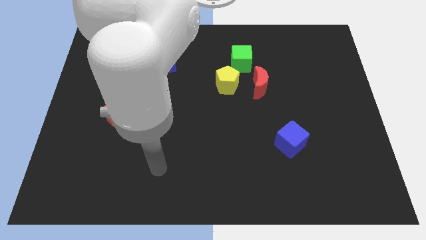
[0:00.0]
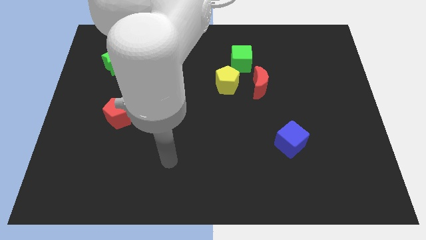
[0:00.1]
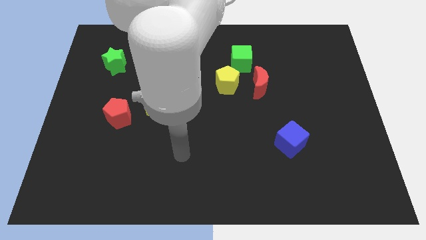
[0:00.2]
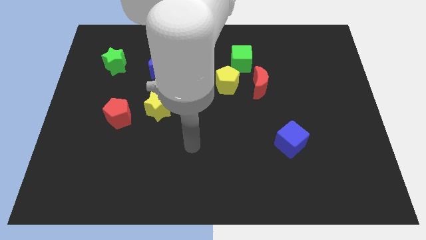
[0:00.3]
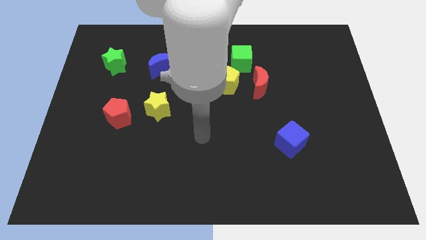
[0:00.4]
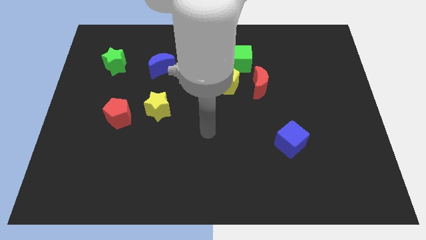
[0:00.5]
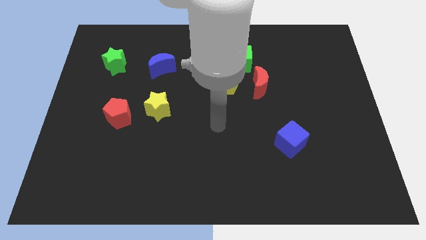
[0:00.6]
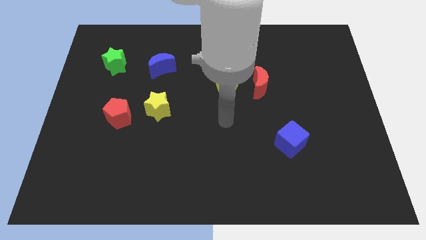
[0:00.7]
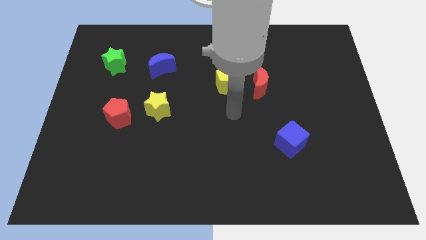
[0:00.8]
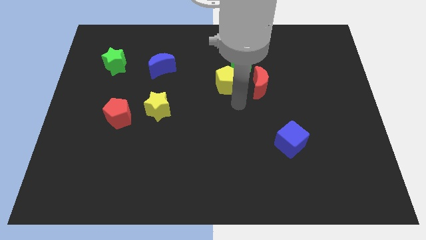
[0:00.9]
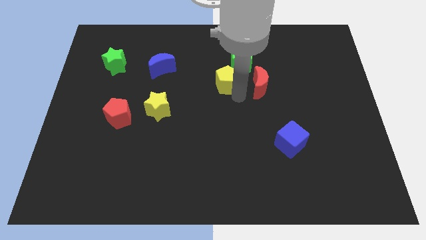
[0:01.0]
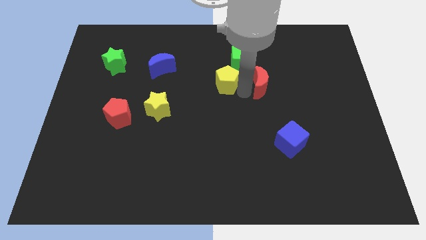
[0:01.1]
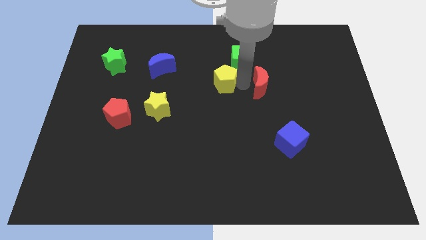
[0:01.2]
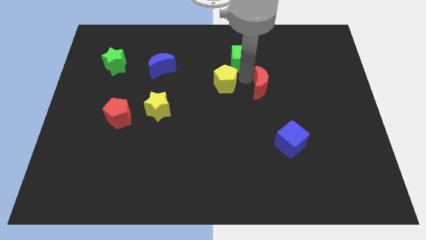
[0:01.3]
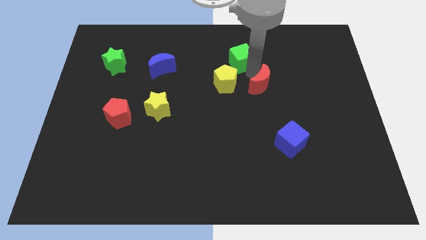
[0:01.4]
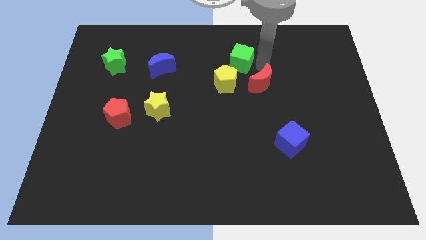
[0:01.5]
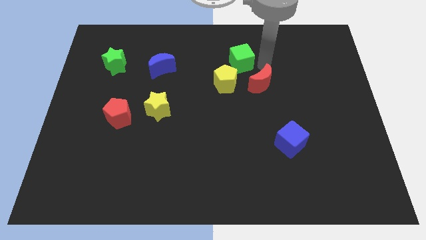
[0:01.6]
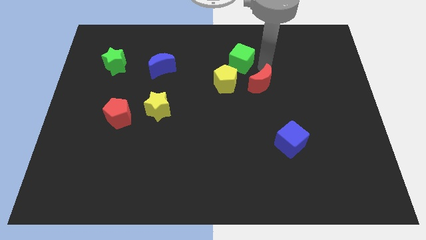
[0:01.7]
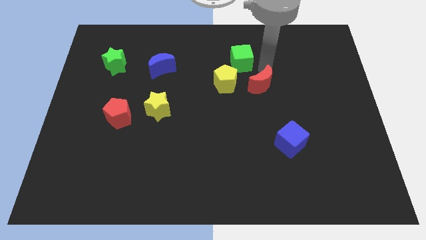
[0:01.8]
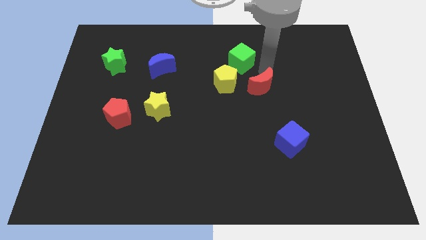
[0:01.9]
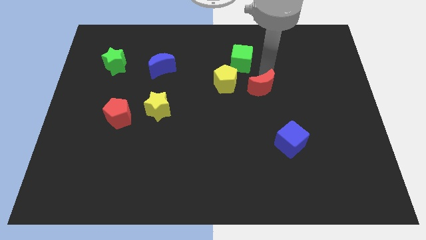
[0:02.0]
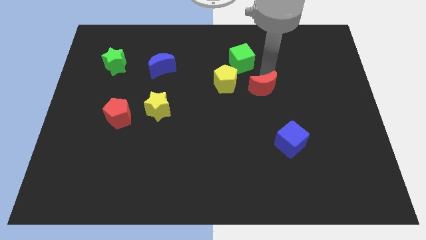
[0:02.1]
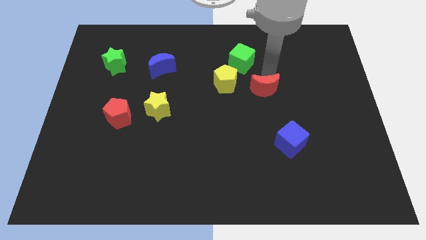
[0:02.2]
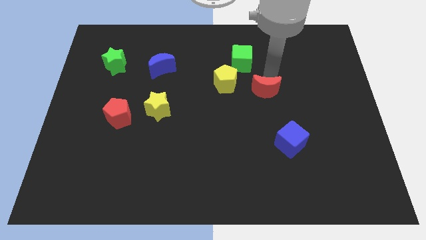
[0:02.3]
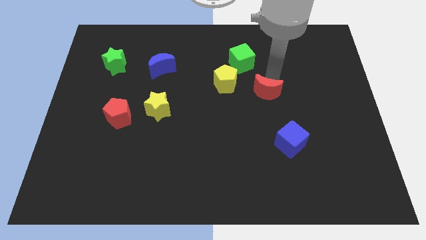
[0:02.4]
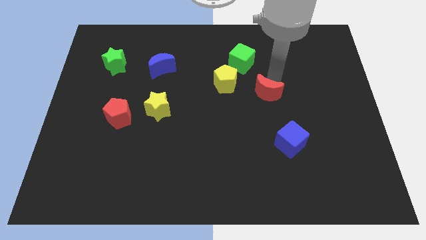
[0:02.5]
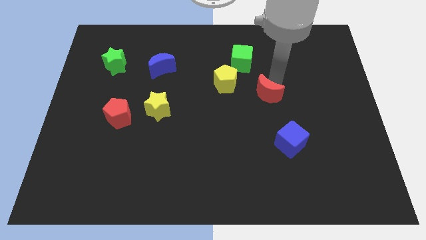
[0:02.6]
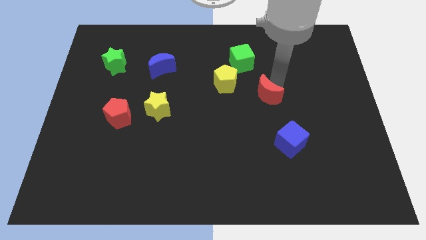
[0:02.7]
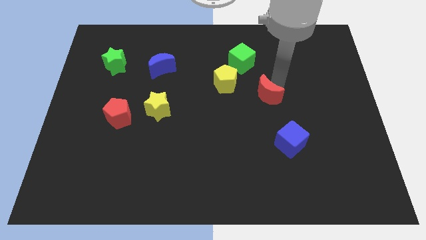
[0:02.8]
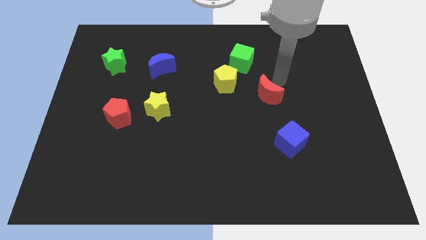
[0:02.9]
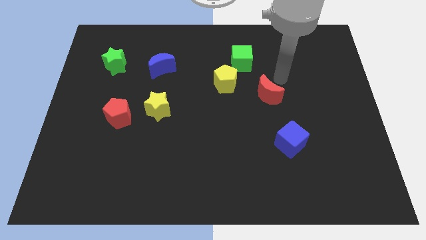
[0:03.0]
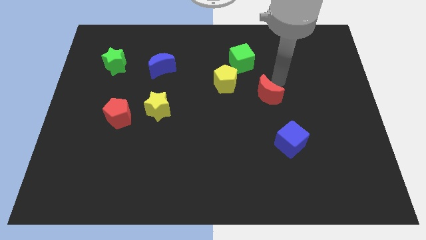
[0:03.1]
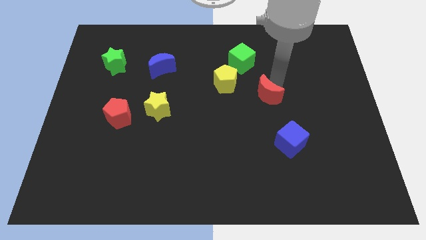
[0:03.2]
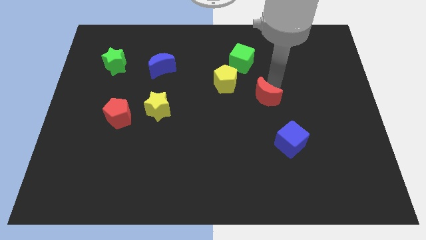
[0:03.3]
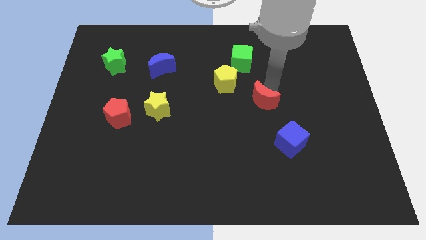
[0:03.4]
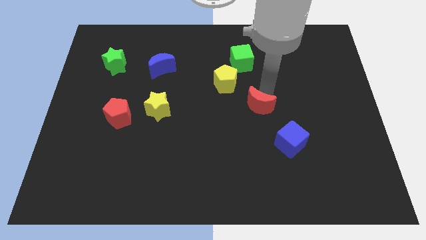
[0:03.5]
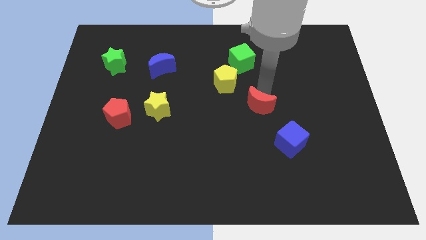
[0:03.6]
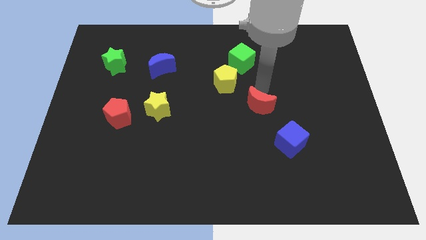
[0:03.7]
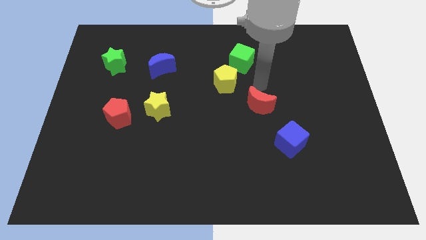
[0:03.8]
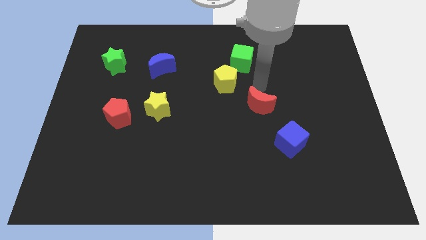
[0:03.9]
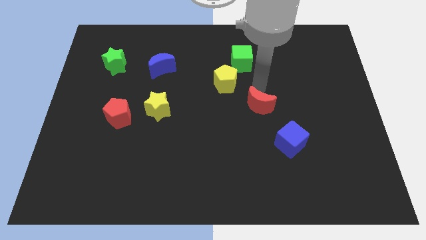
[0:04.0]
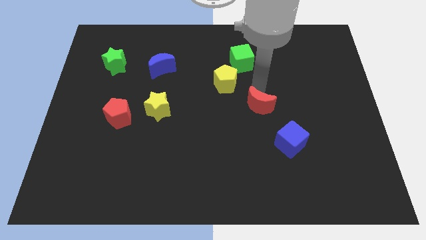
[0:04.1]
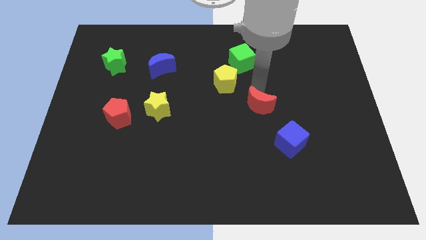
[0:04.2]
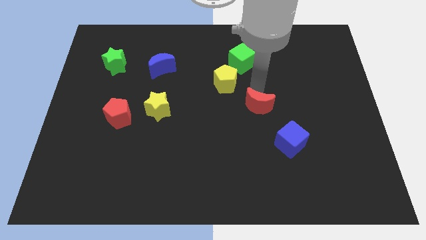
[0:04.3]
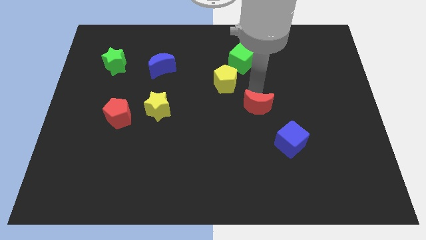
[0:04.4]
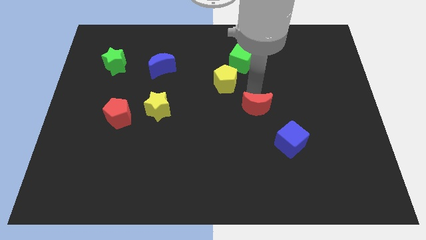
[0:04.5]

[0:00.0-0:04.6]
move the red moon downwards somewhat

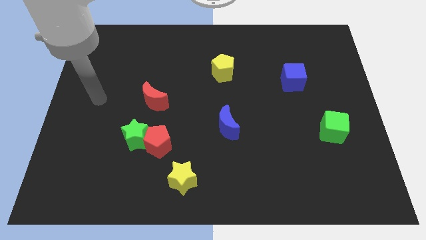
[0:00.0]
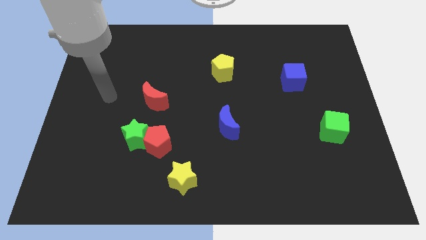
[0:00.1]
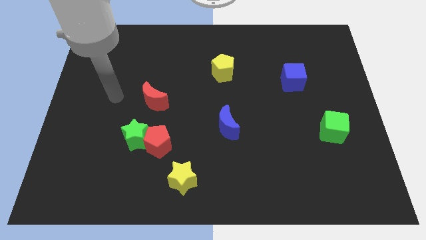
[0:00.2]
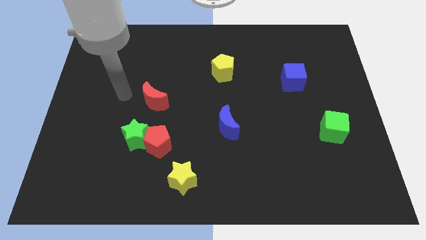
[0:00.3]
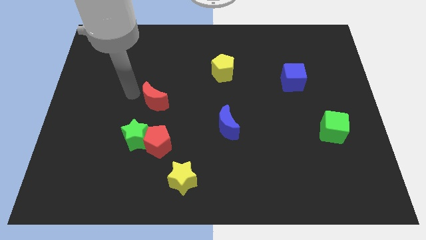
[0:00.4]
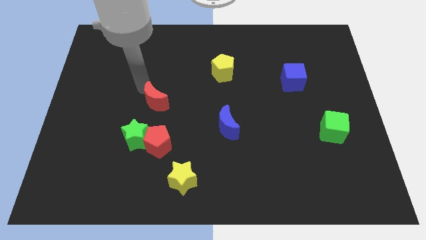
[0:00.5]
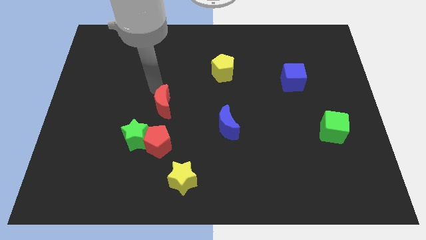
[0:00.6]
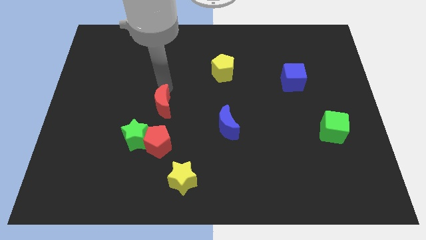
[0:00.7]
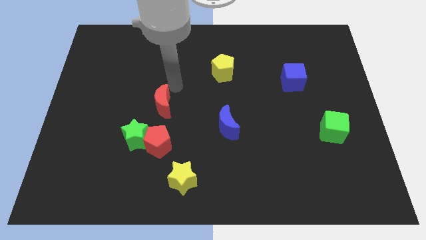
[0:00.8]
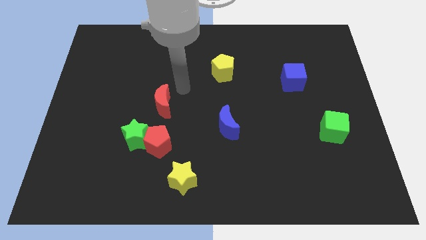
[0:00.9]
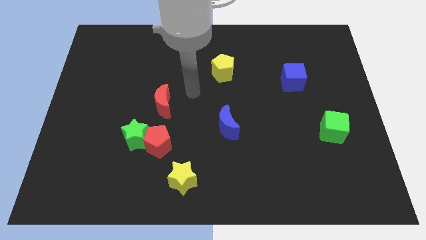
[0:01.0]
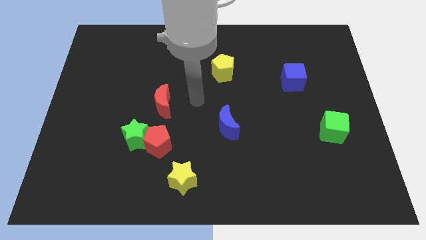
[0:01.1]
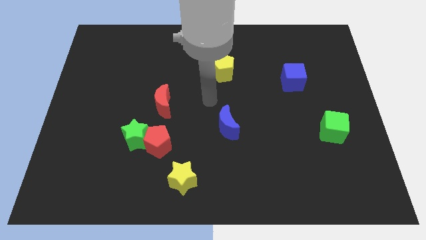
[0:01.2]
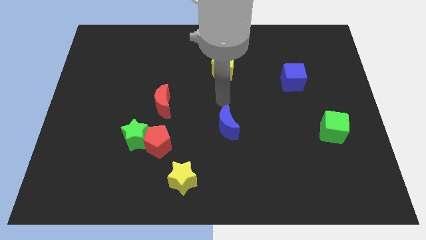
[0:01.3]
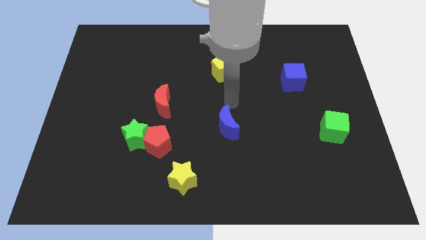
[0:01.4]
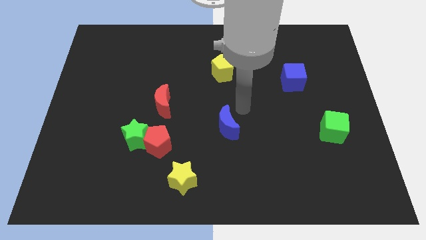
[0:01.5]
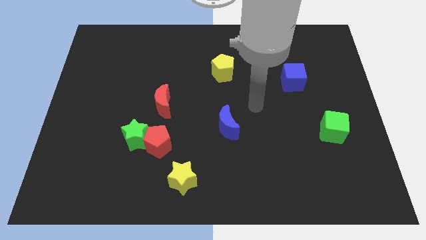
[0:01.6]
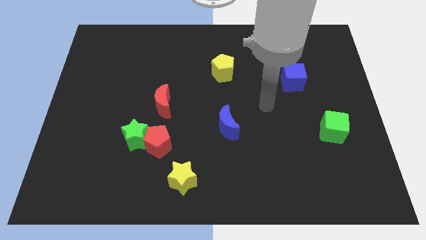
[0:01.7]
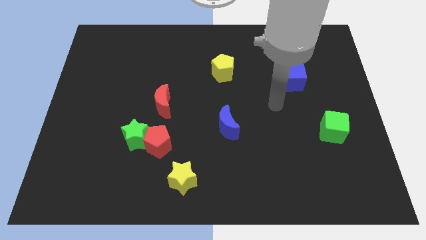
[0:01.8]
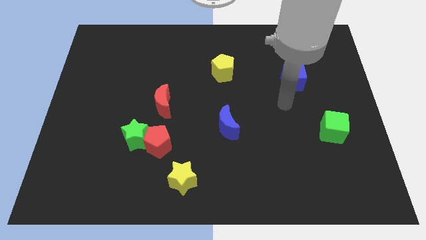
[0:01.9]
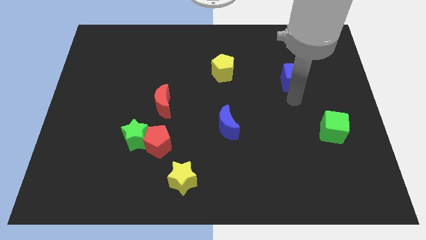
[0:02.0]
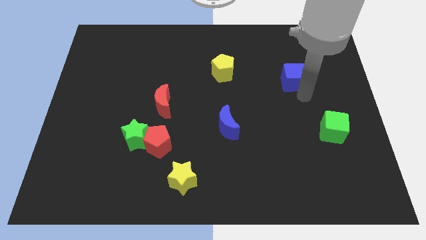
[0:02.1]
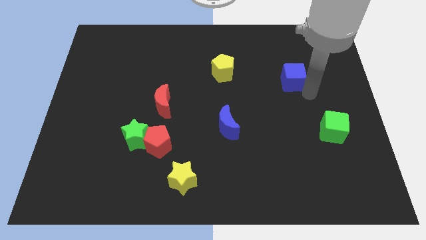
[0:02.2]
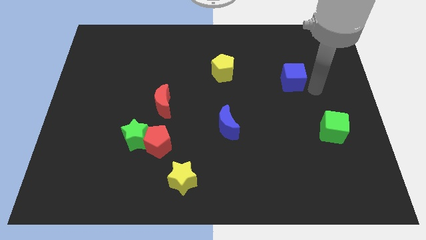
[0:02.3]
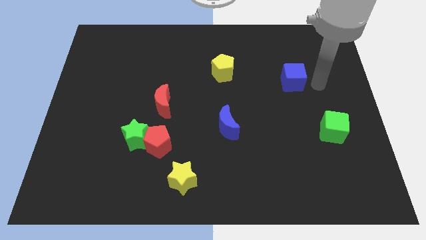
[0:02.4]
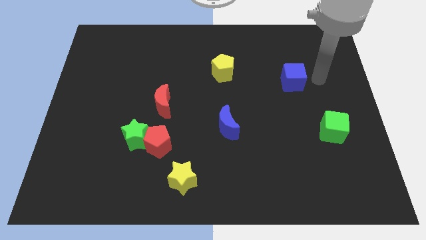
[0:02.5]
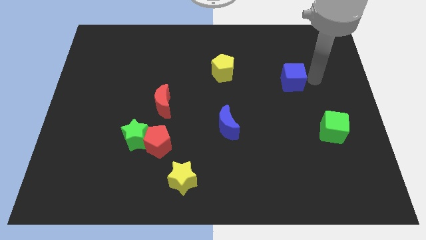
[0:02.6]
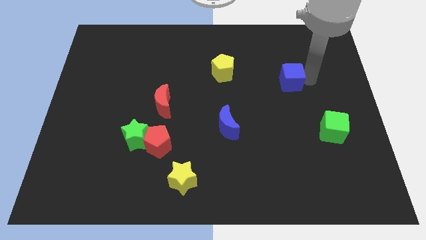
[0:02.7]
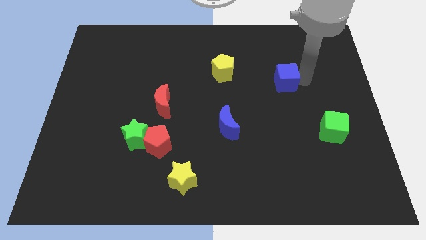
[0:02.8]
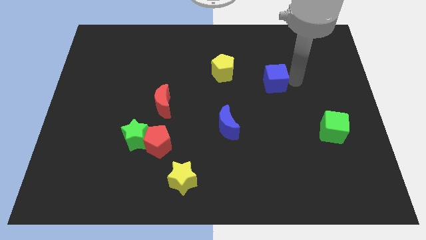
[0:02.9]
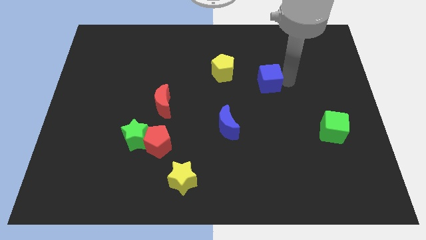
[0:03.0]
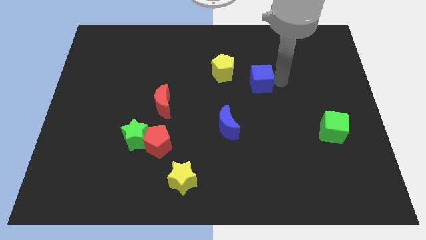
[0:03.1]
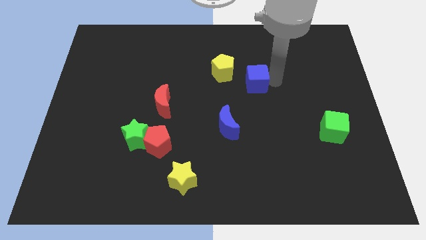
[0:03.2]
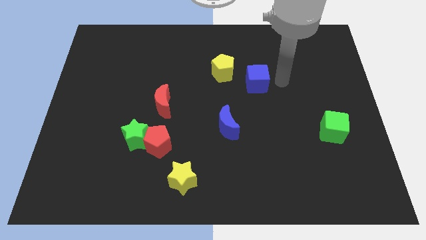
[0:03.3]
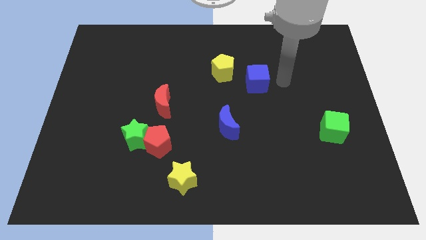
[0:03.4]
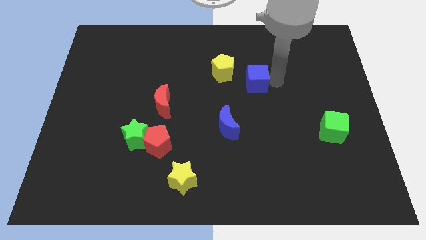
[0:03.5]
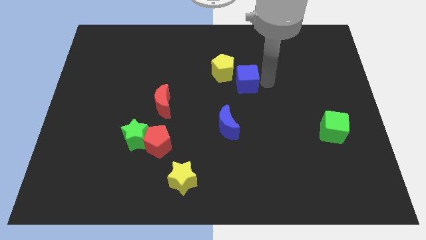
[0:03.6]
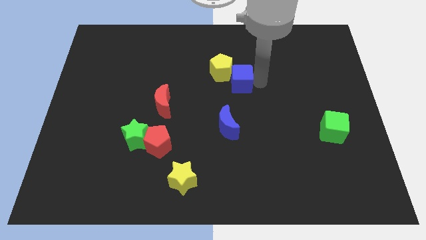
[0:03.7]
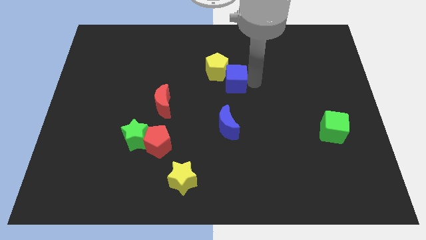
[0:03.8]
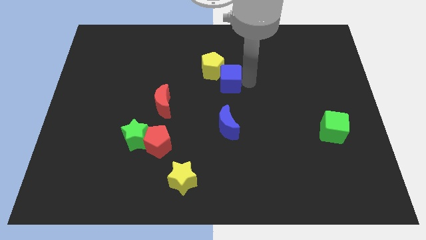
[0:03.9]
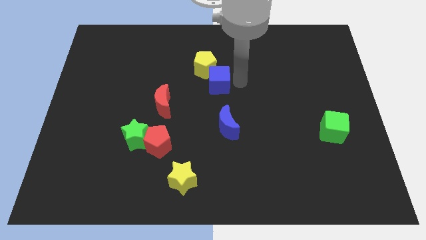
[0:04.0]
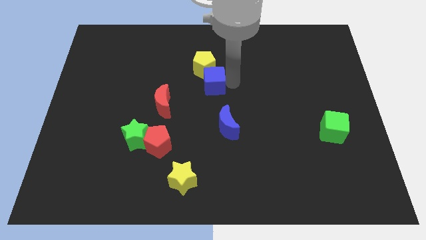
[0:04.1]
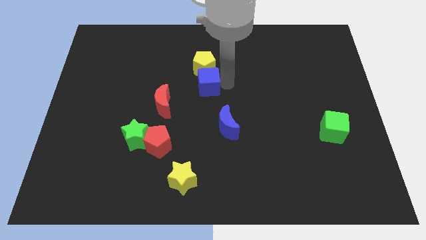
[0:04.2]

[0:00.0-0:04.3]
push the blue cube left
